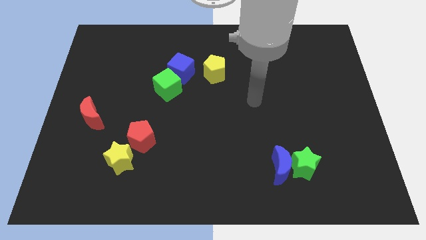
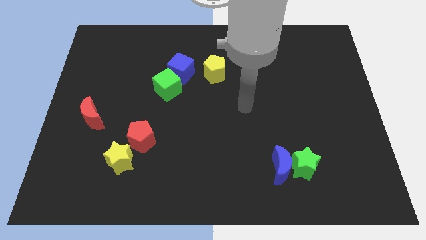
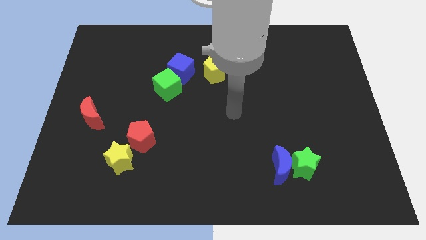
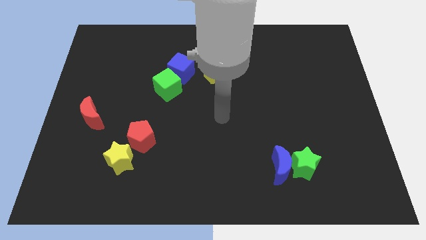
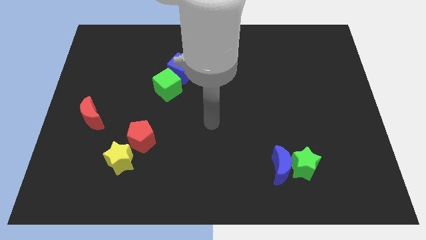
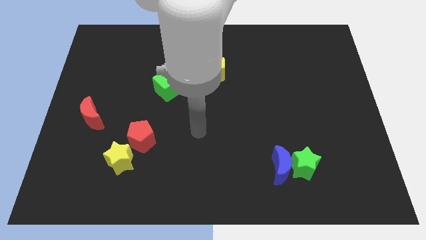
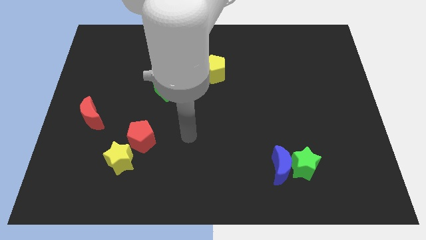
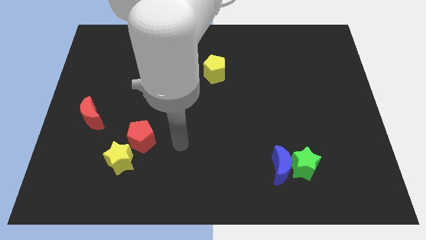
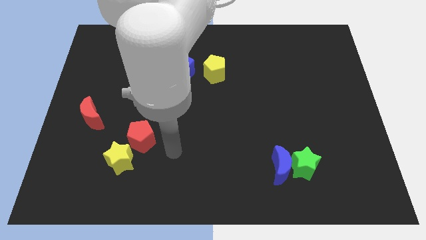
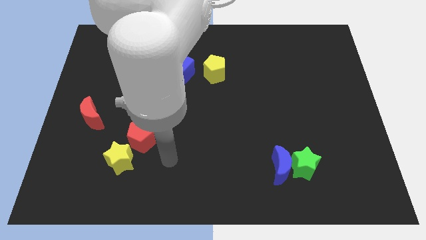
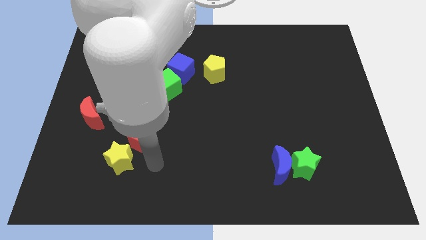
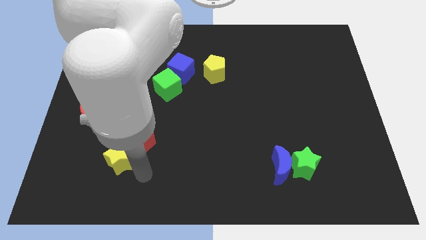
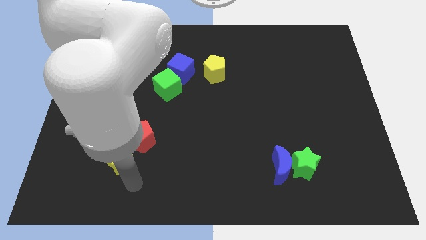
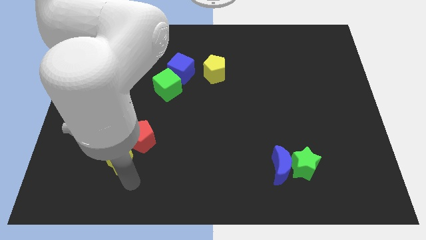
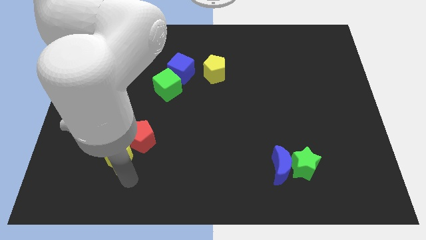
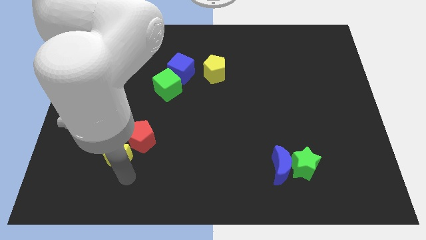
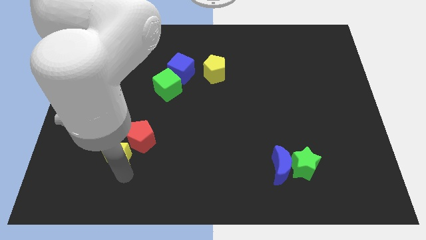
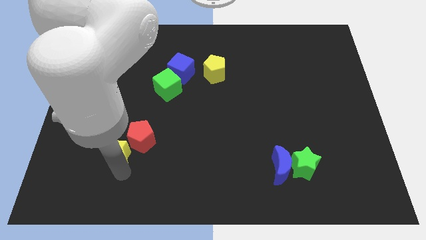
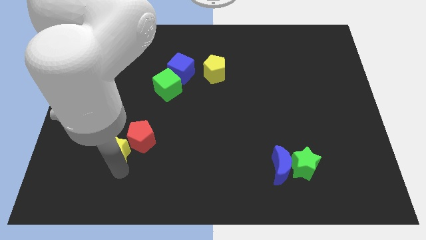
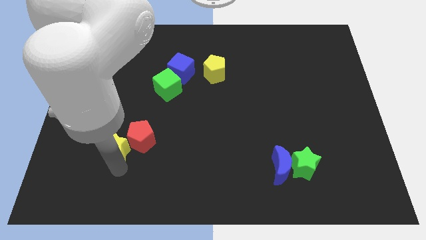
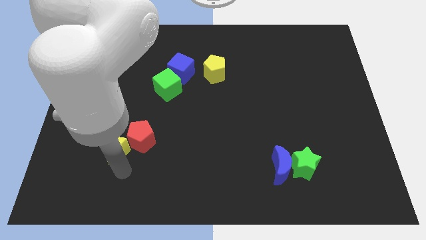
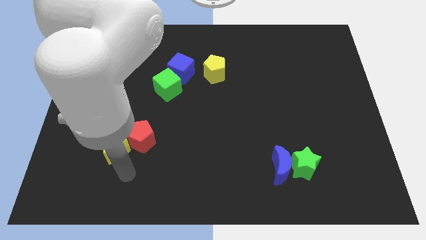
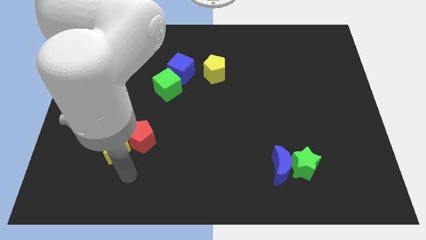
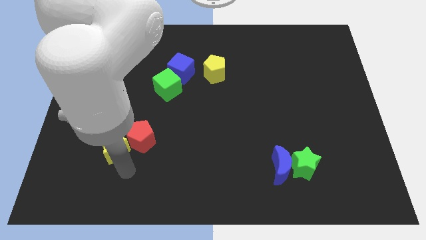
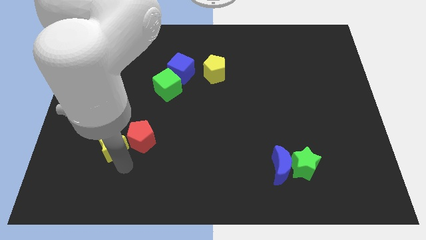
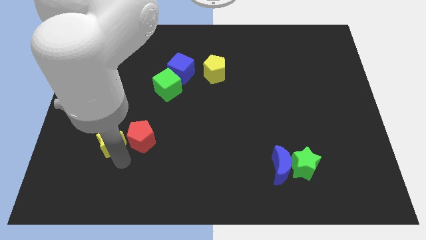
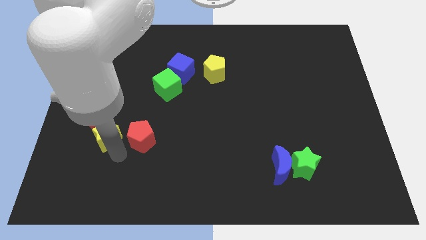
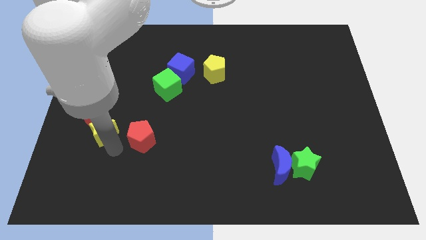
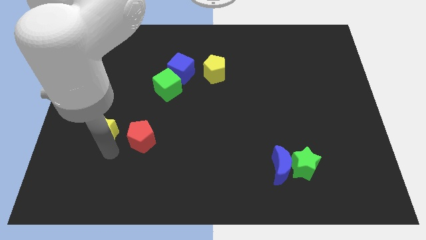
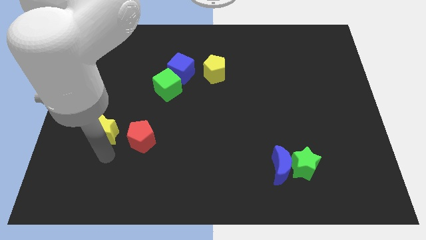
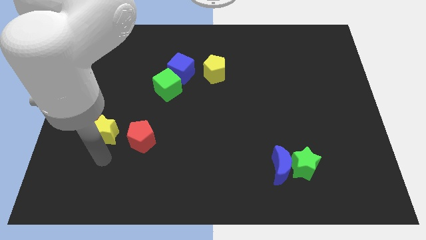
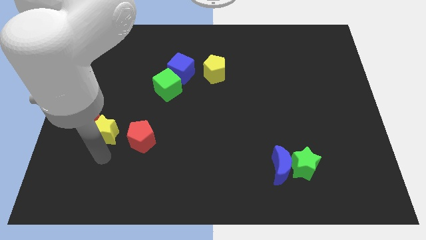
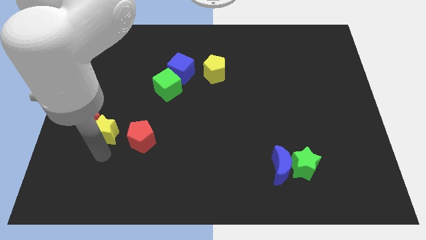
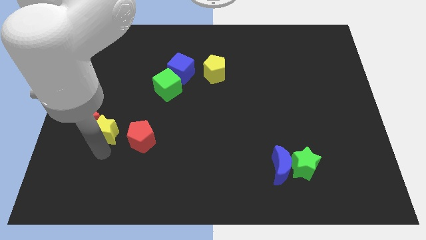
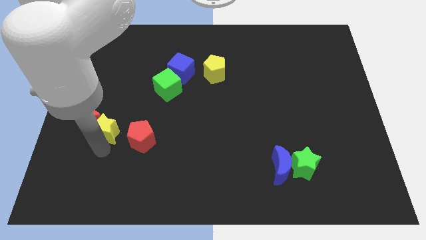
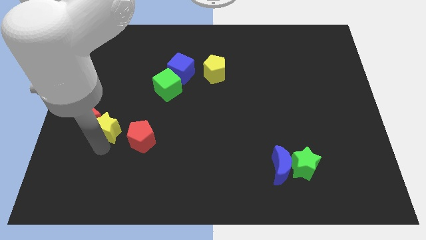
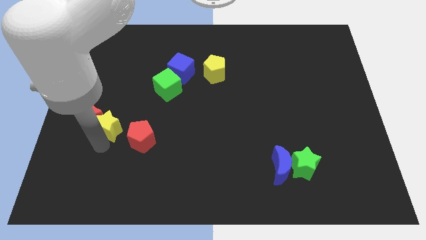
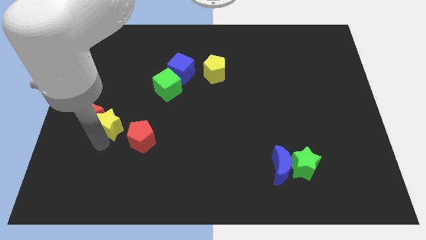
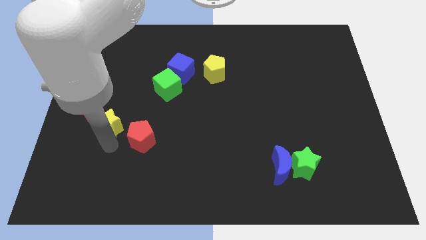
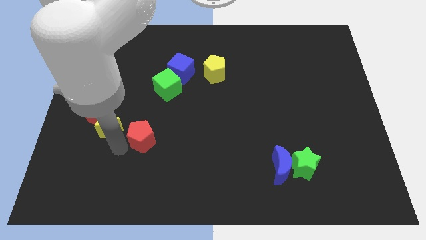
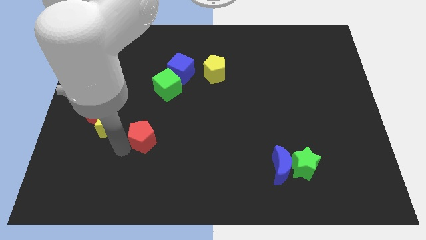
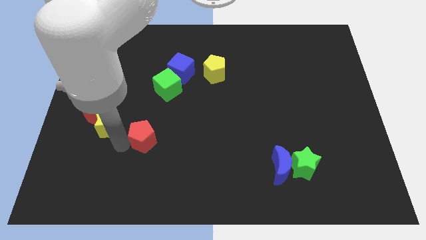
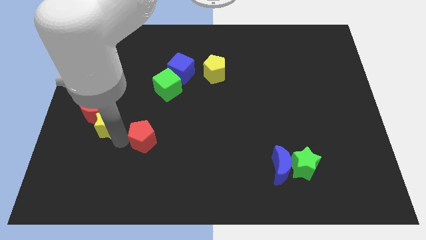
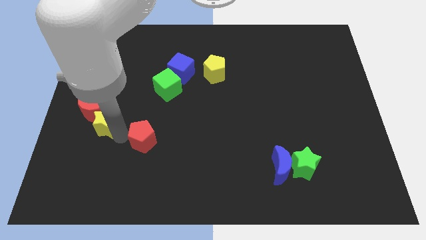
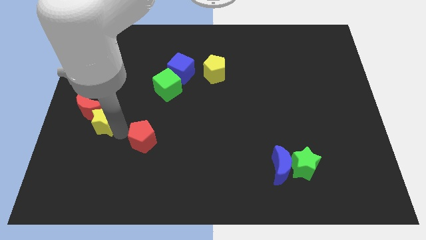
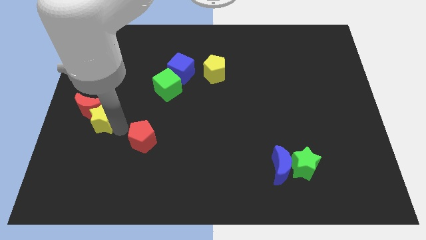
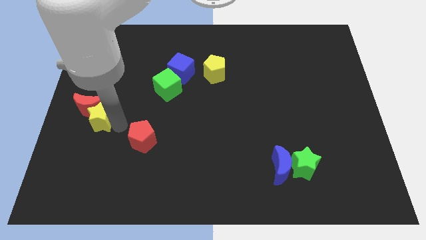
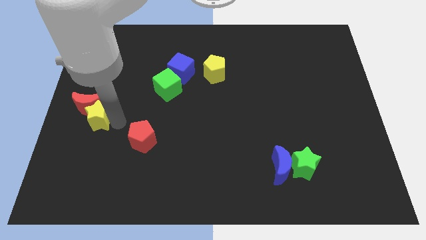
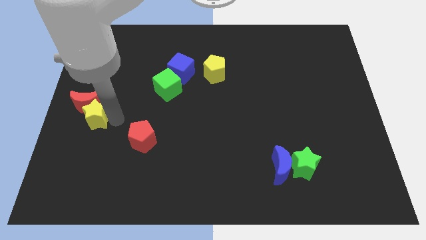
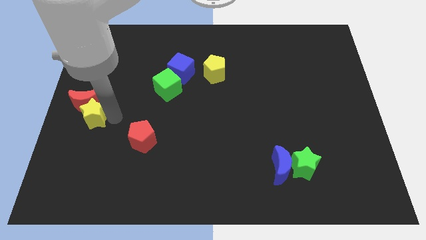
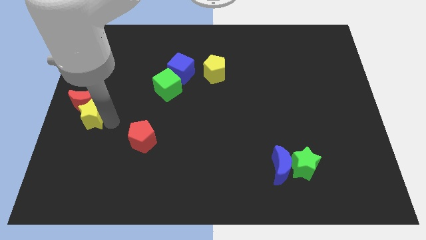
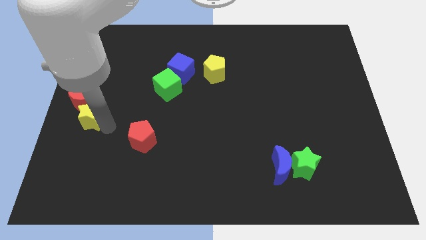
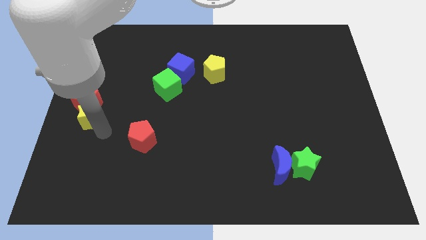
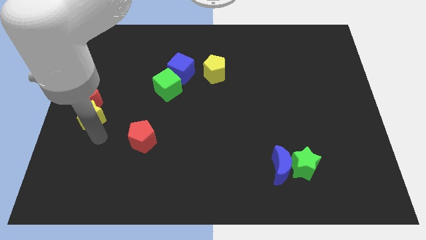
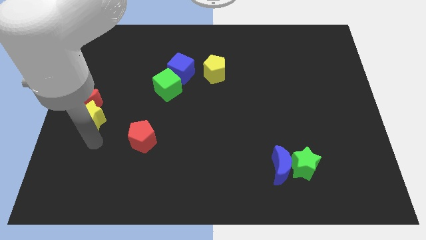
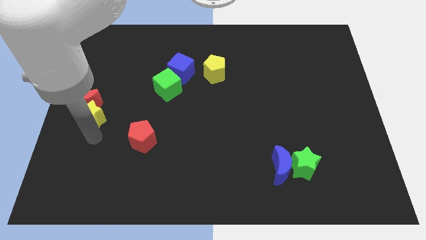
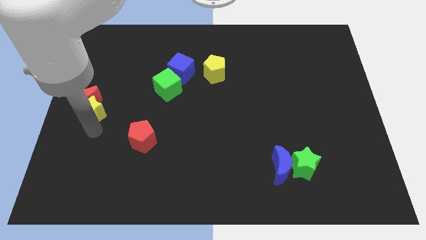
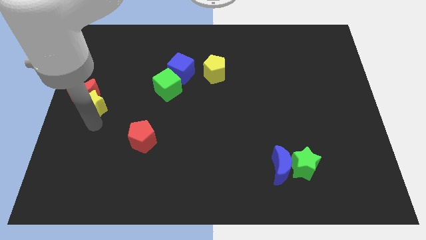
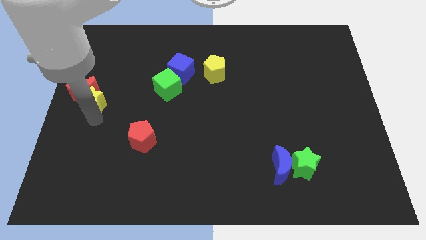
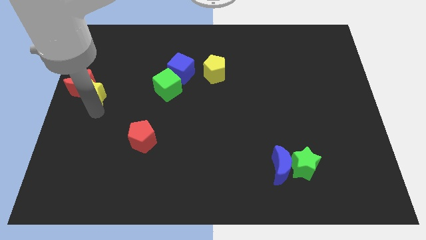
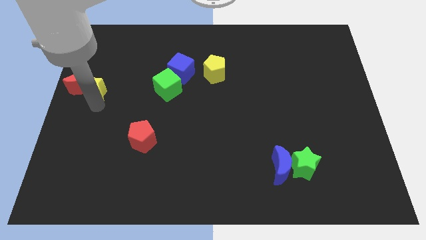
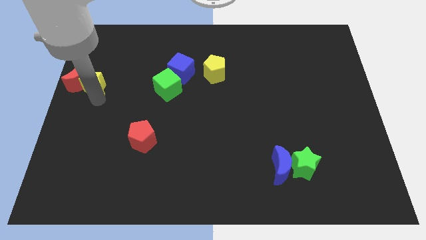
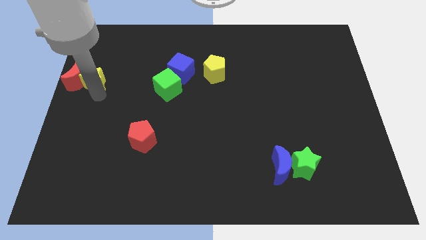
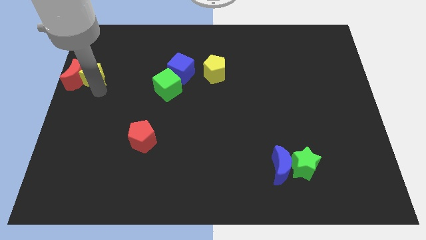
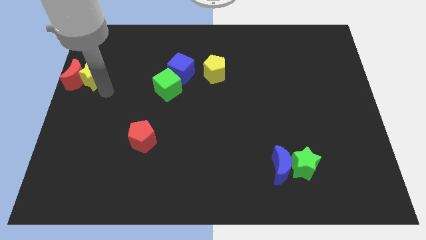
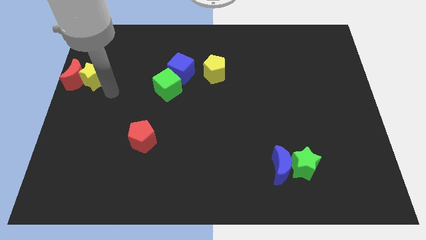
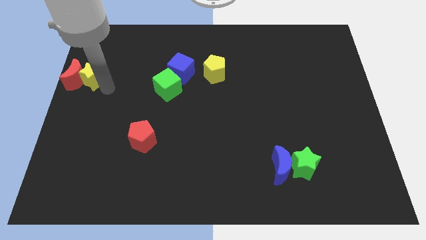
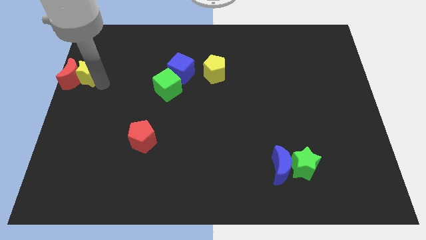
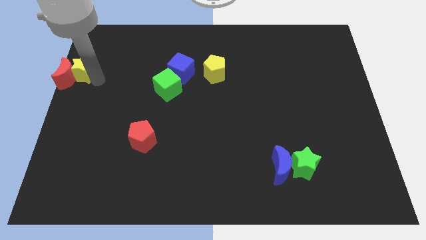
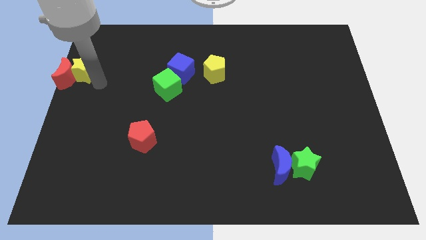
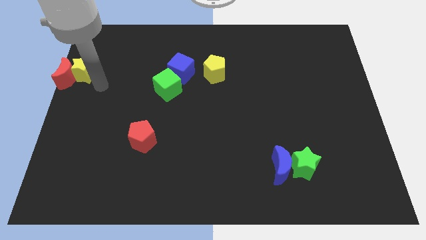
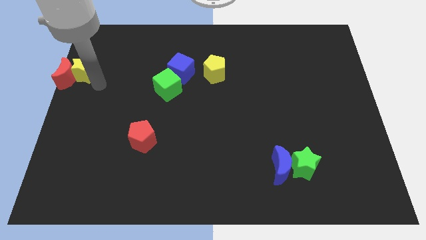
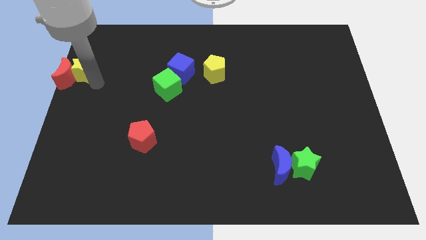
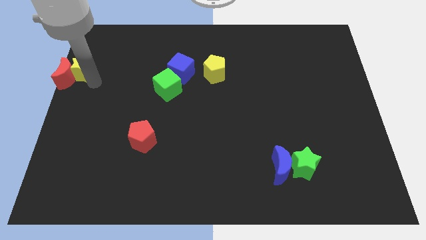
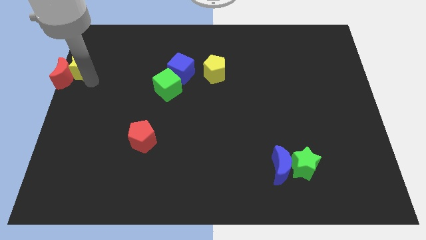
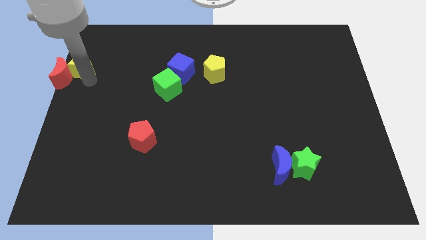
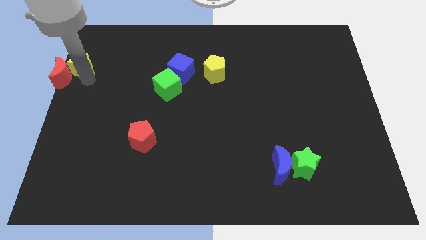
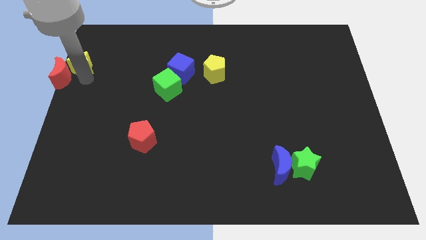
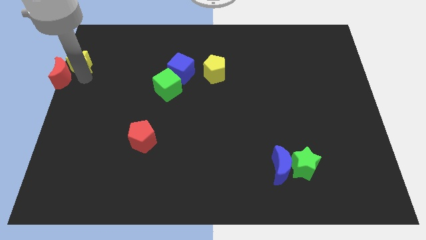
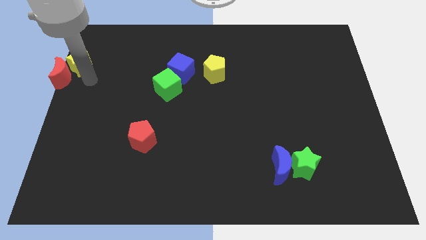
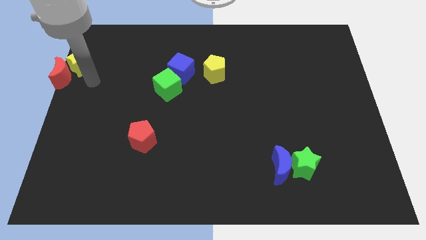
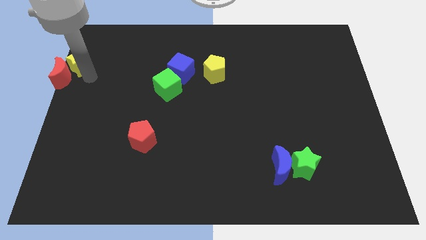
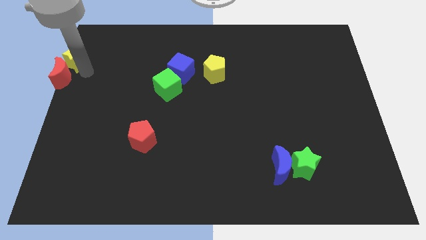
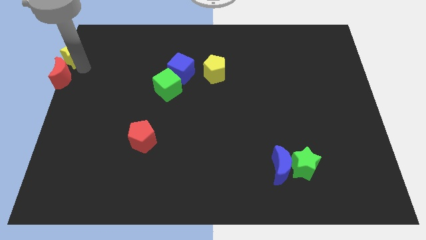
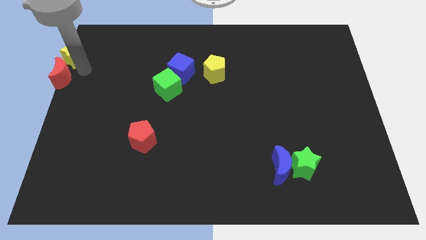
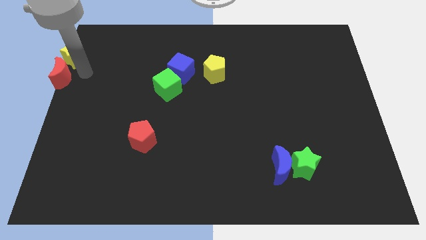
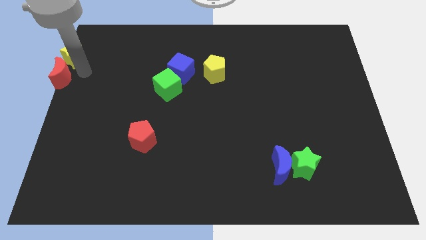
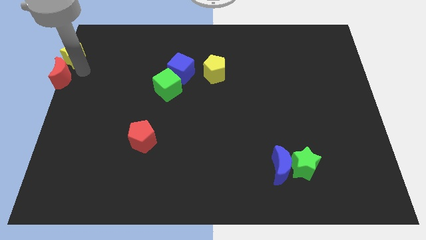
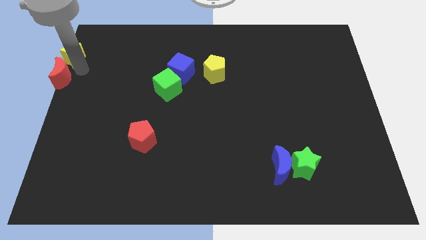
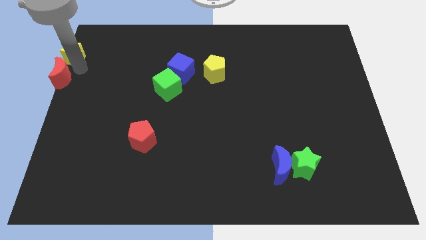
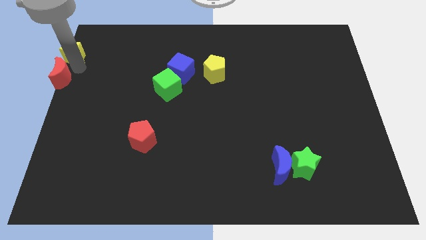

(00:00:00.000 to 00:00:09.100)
push the yellow star to the top left
